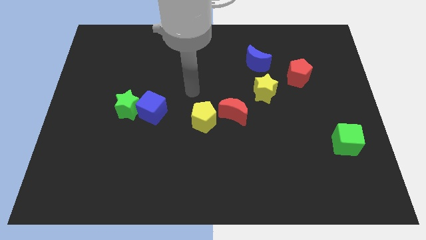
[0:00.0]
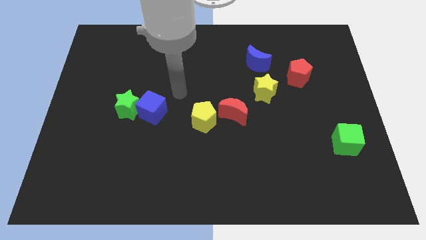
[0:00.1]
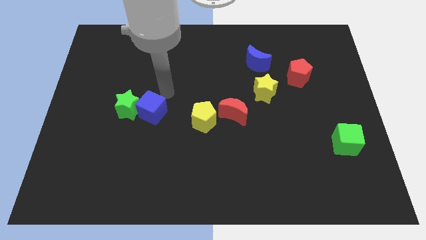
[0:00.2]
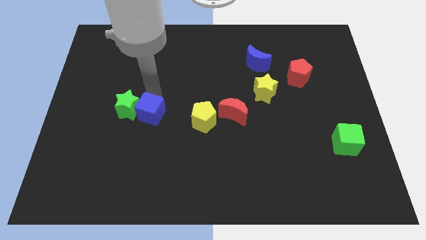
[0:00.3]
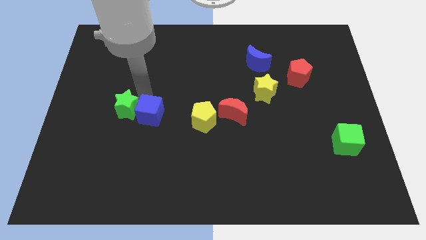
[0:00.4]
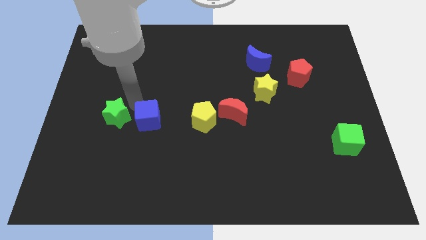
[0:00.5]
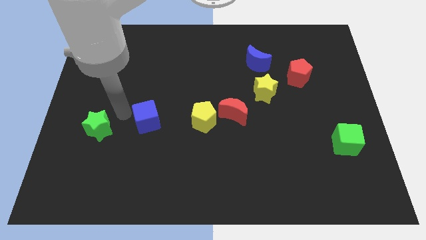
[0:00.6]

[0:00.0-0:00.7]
pull the blue cube apart from the green star

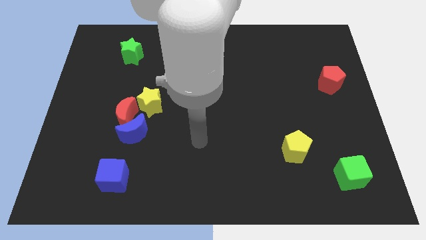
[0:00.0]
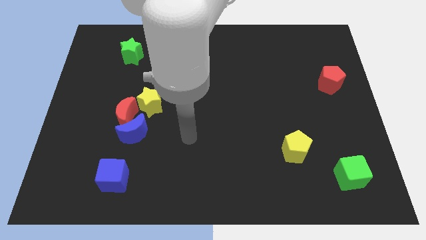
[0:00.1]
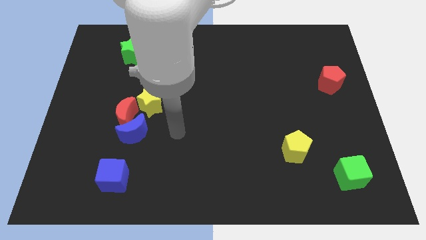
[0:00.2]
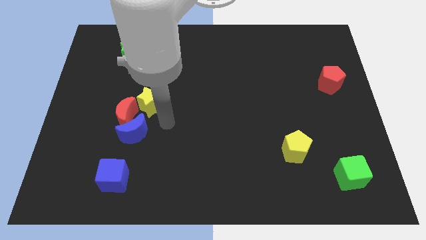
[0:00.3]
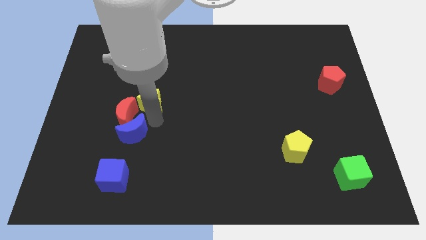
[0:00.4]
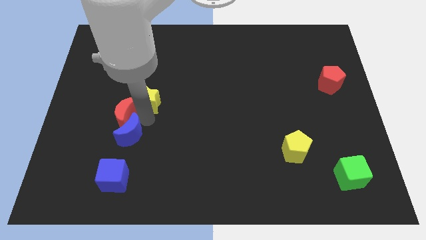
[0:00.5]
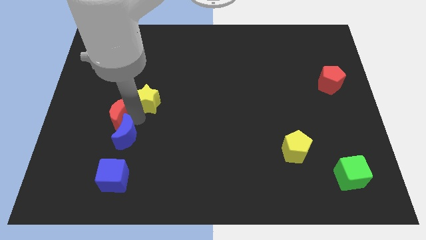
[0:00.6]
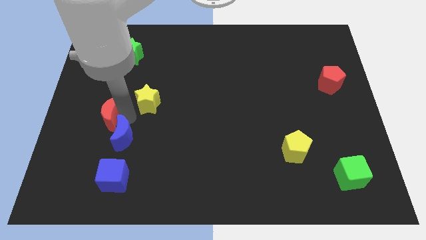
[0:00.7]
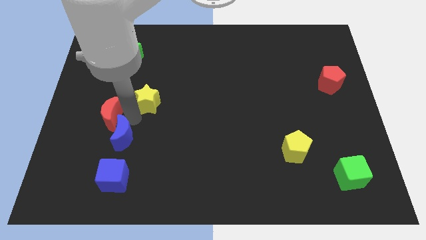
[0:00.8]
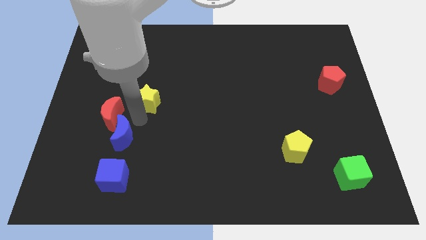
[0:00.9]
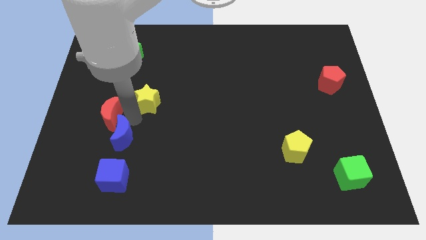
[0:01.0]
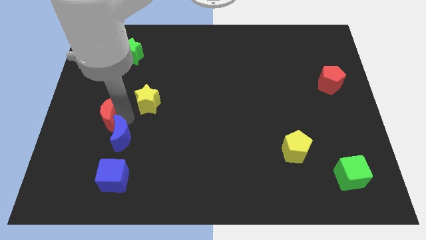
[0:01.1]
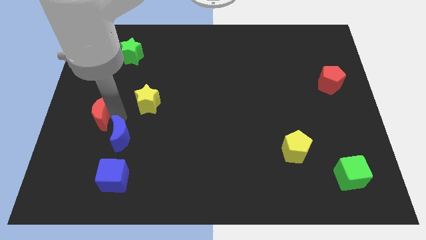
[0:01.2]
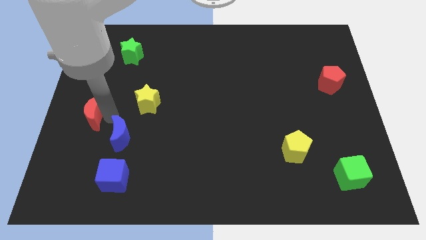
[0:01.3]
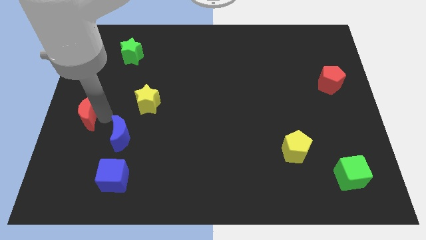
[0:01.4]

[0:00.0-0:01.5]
move the red moon away from the blue moon and yellow star

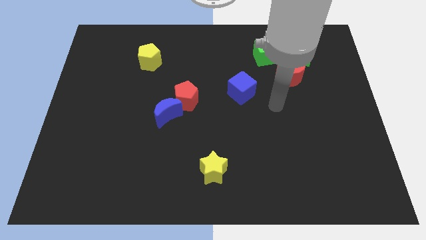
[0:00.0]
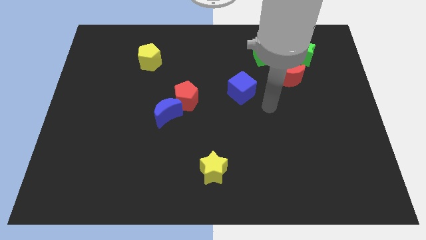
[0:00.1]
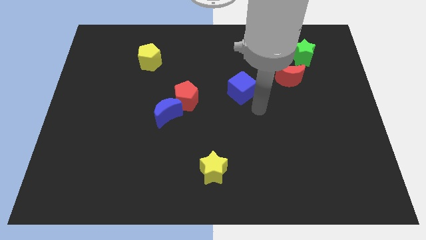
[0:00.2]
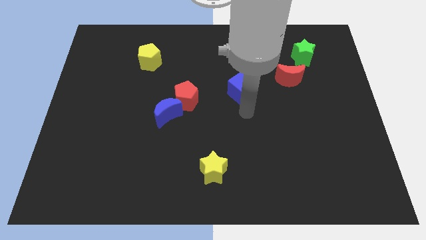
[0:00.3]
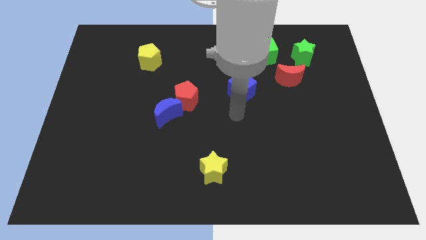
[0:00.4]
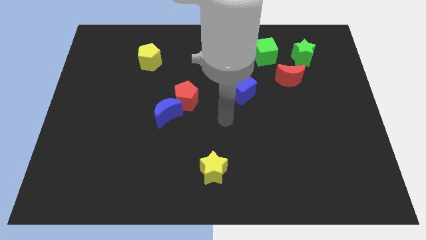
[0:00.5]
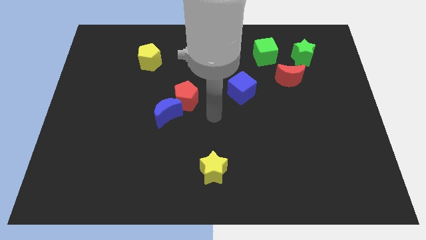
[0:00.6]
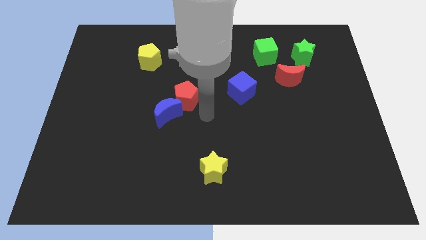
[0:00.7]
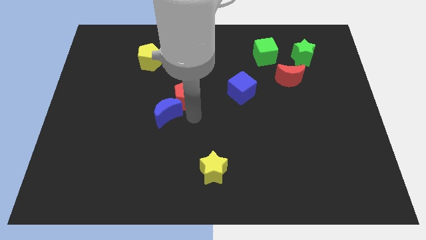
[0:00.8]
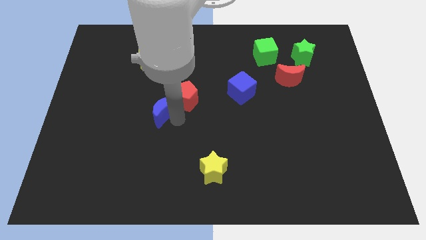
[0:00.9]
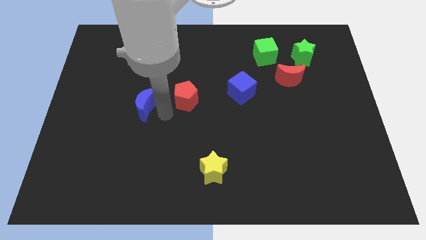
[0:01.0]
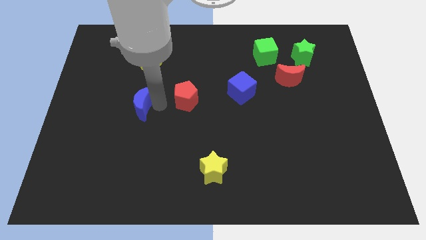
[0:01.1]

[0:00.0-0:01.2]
separate the red pentagon from the blue moon

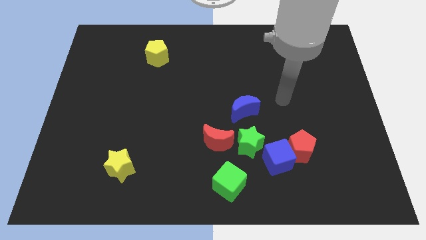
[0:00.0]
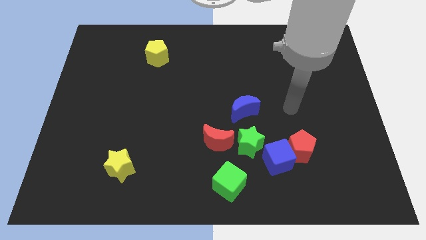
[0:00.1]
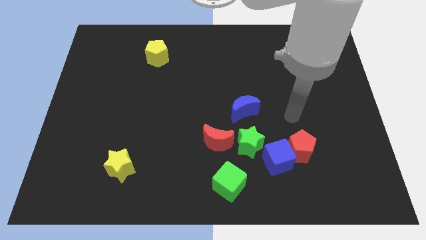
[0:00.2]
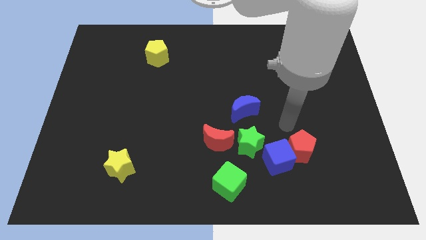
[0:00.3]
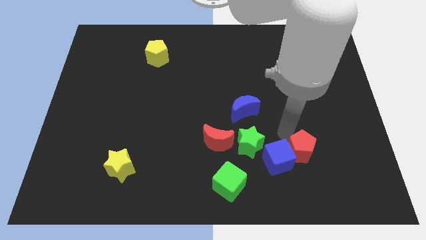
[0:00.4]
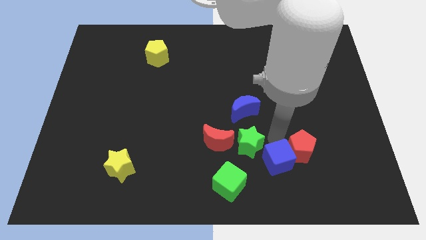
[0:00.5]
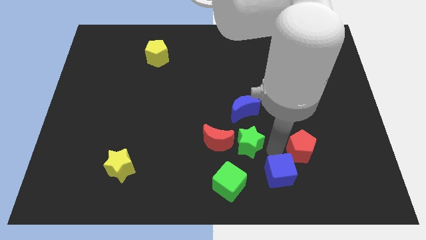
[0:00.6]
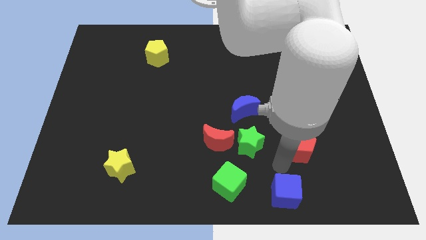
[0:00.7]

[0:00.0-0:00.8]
pull the red pentagon apart from the blue cube

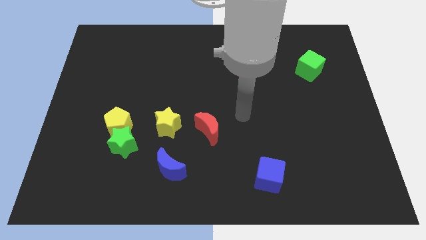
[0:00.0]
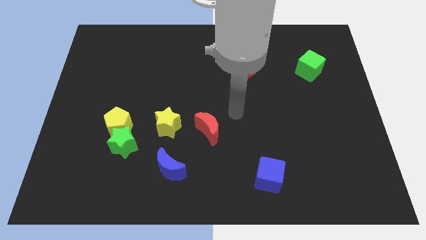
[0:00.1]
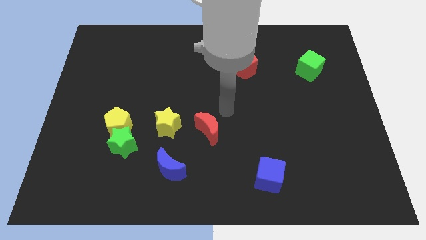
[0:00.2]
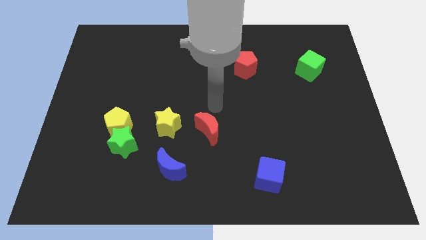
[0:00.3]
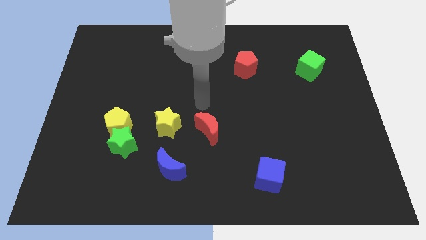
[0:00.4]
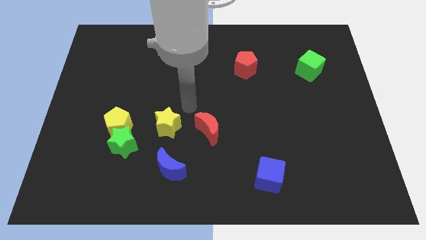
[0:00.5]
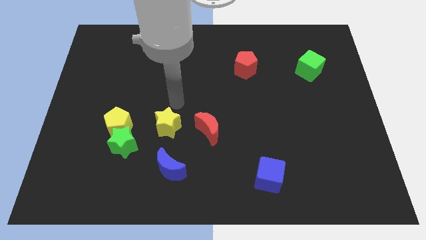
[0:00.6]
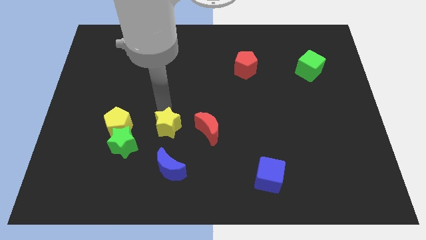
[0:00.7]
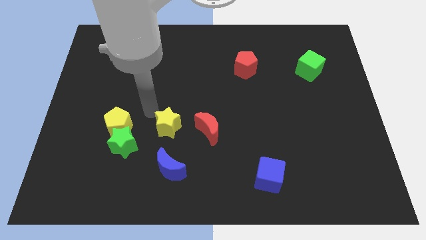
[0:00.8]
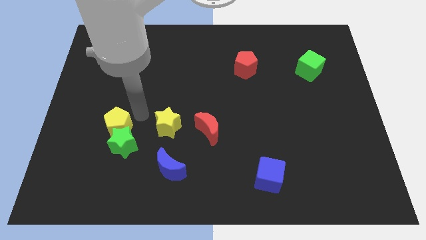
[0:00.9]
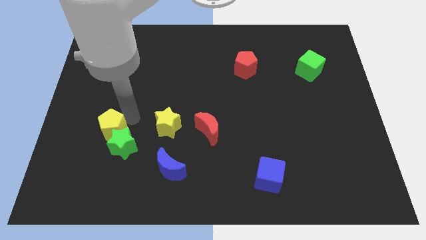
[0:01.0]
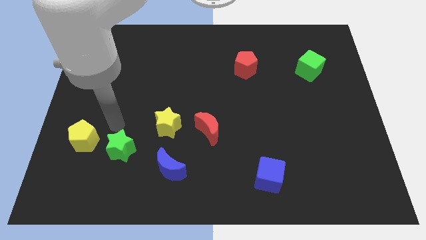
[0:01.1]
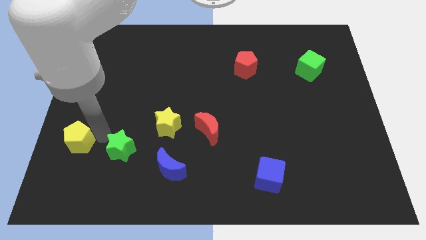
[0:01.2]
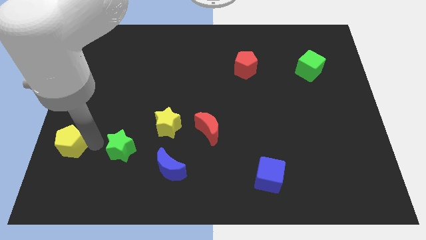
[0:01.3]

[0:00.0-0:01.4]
pull the green star apart from the yellow pentagon

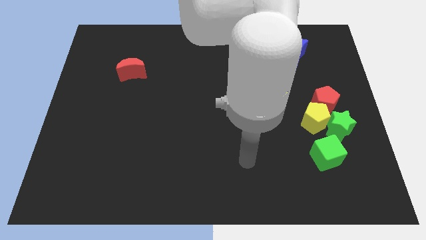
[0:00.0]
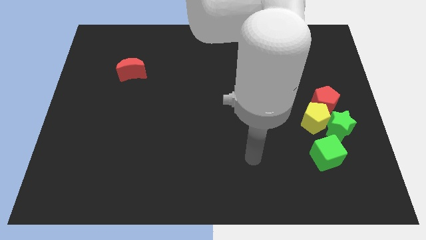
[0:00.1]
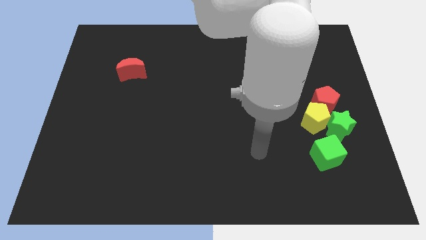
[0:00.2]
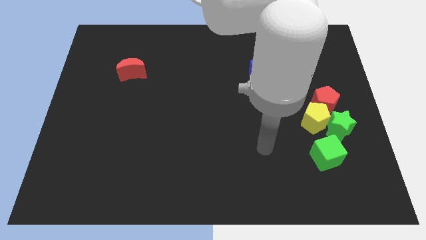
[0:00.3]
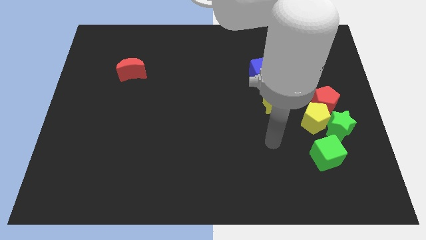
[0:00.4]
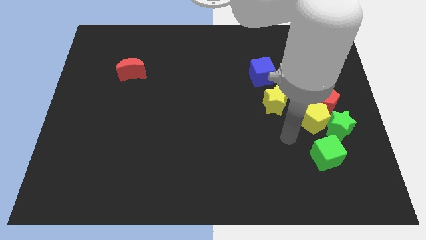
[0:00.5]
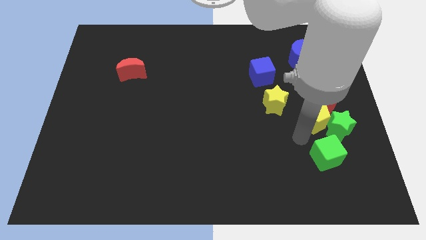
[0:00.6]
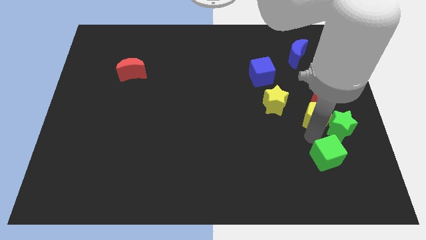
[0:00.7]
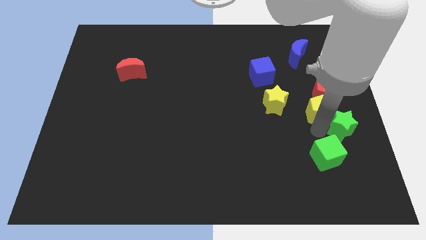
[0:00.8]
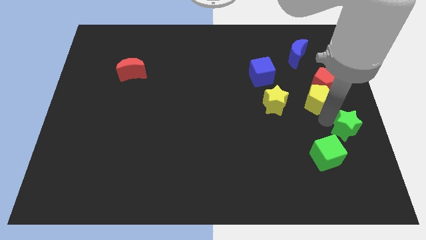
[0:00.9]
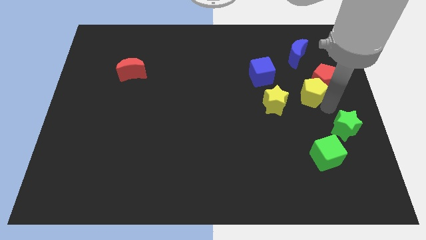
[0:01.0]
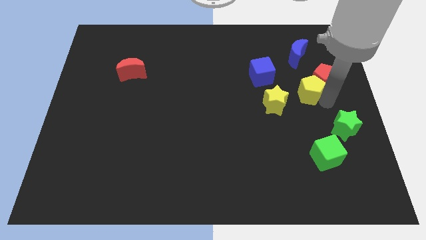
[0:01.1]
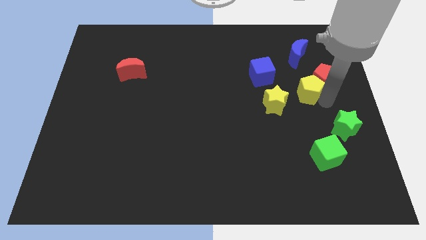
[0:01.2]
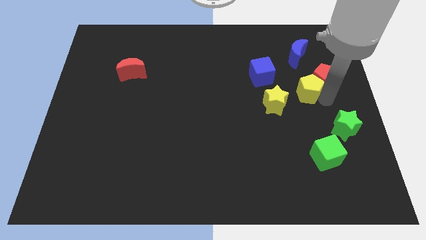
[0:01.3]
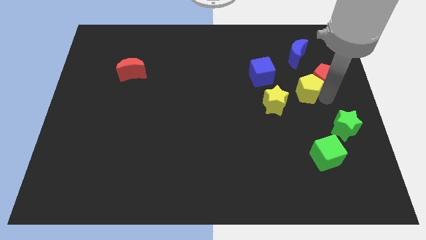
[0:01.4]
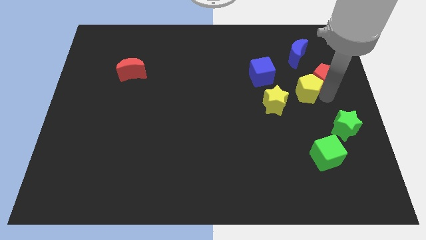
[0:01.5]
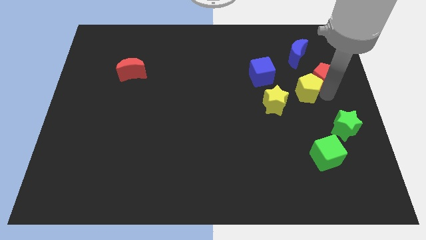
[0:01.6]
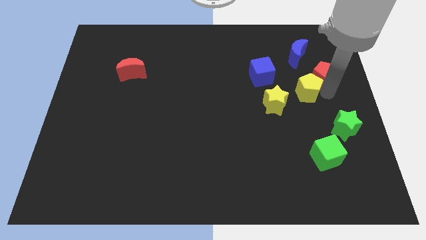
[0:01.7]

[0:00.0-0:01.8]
separate the red pentagon from the yellow pentagon and green star

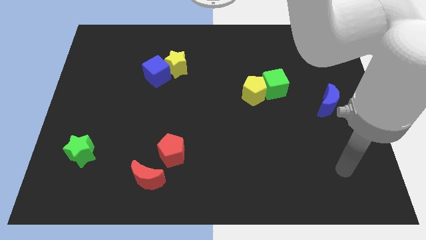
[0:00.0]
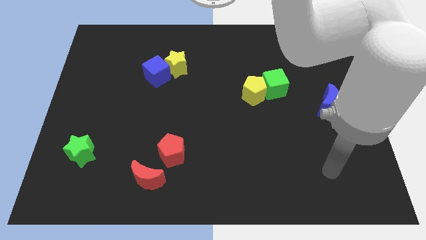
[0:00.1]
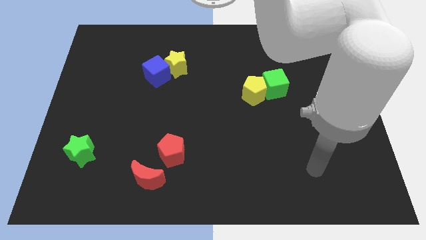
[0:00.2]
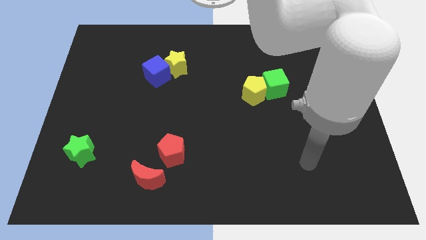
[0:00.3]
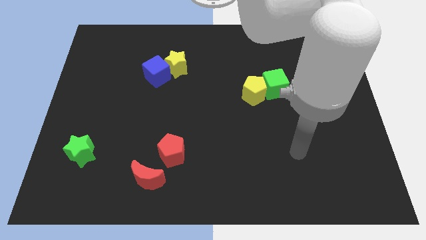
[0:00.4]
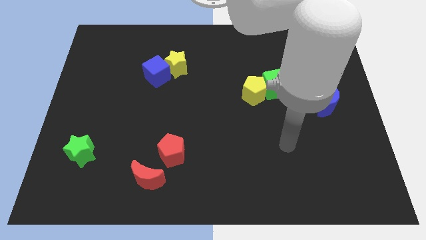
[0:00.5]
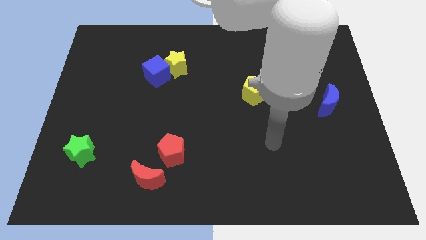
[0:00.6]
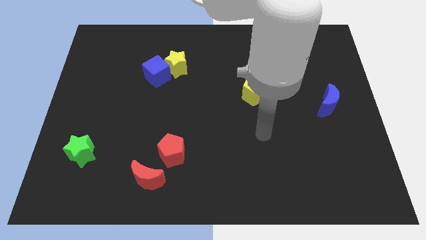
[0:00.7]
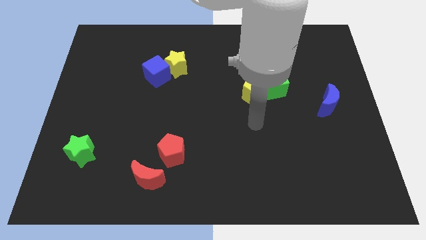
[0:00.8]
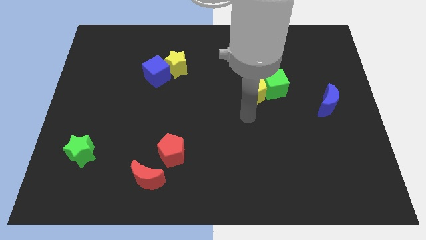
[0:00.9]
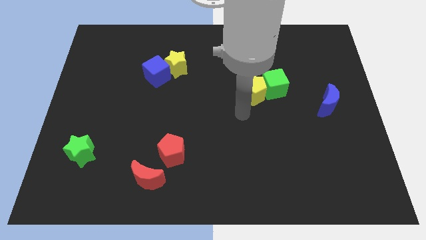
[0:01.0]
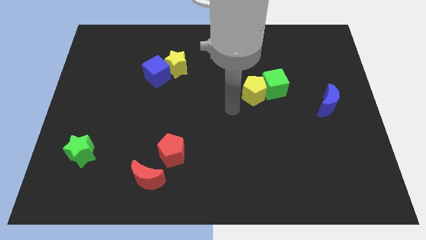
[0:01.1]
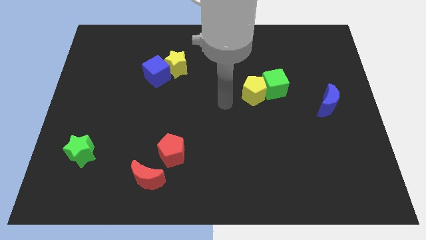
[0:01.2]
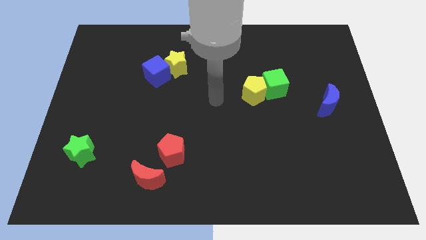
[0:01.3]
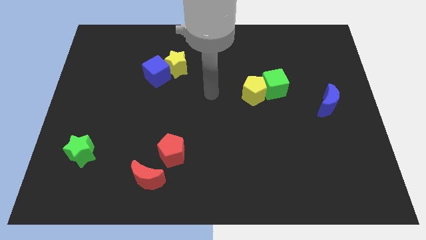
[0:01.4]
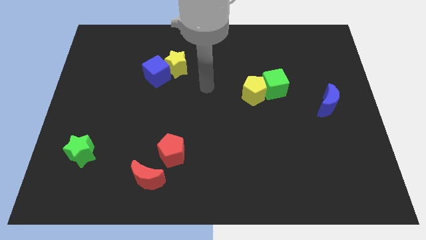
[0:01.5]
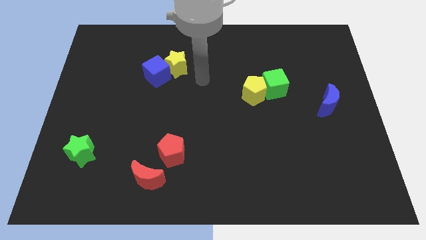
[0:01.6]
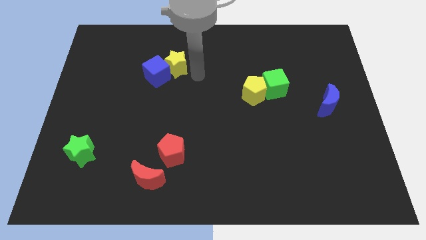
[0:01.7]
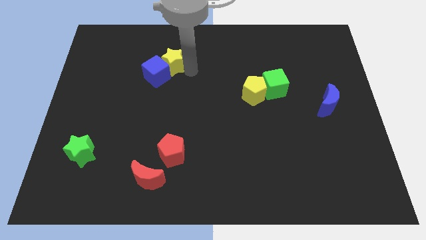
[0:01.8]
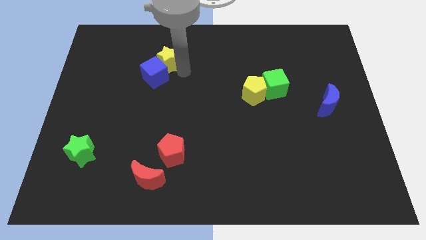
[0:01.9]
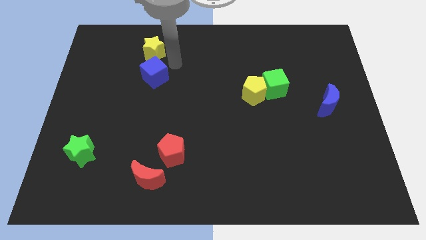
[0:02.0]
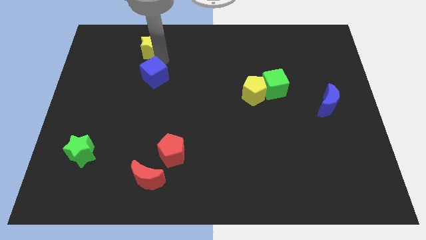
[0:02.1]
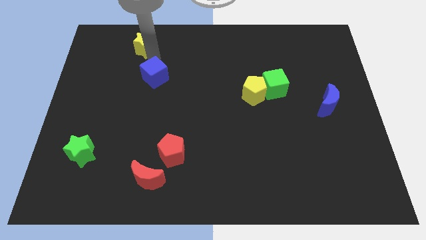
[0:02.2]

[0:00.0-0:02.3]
separate the blue cube from the yellow star
